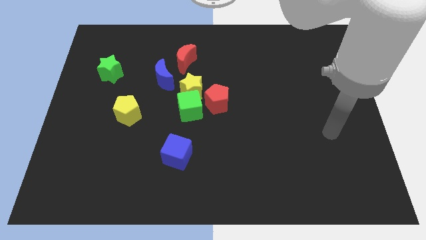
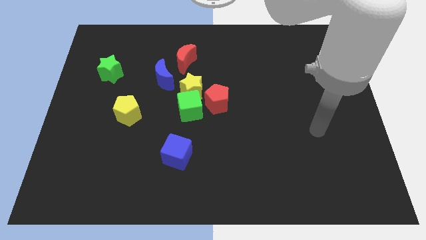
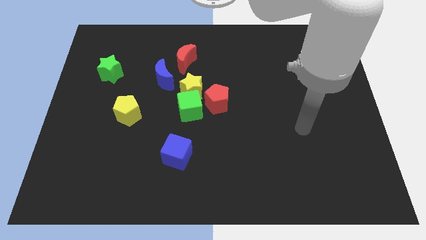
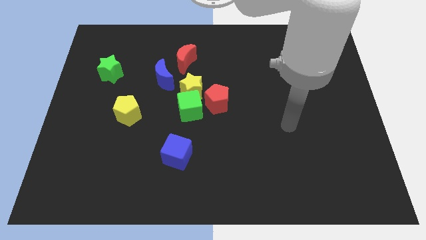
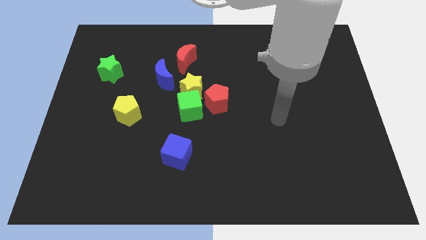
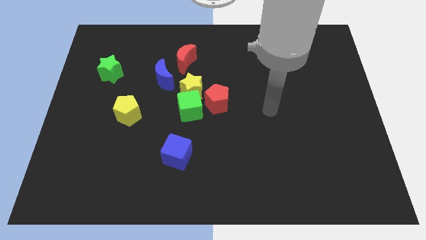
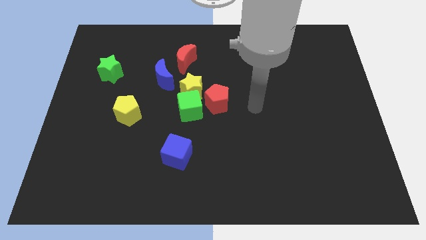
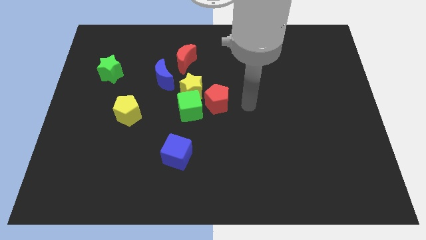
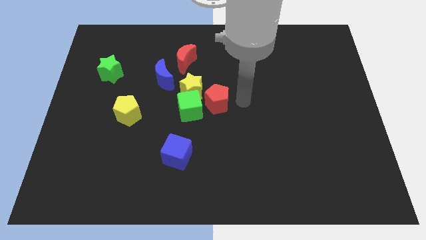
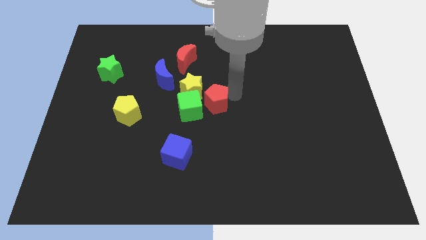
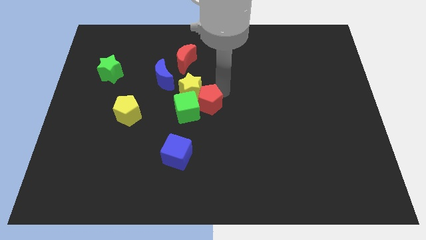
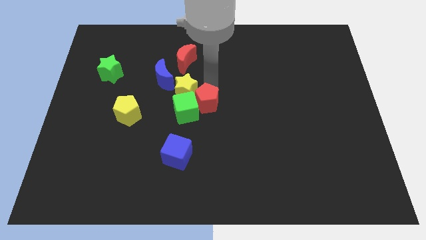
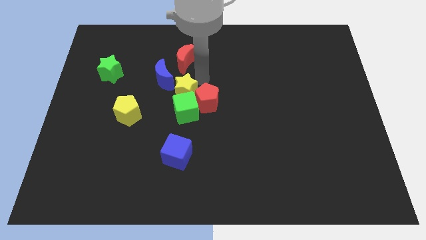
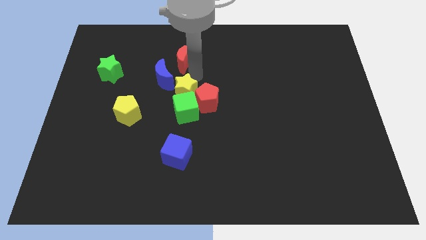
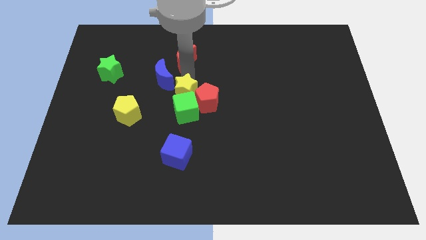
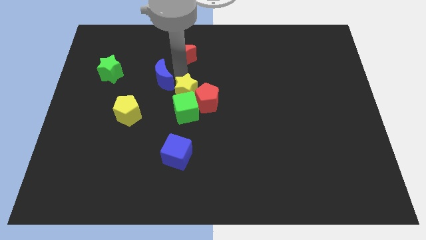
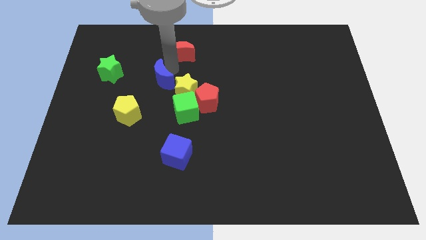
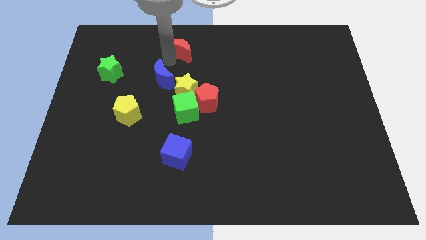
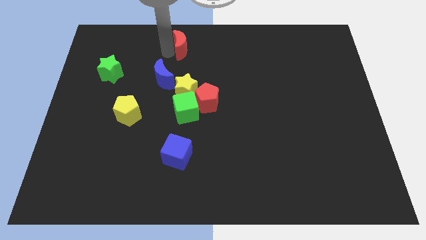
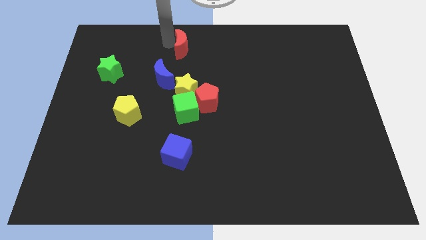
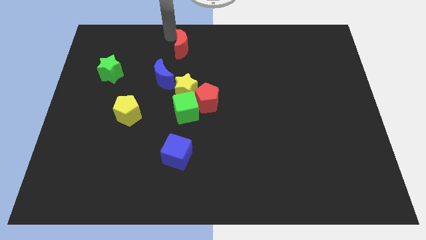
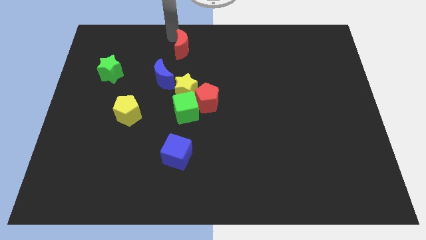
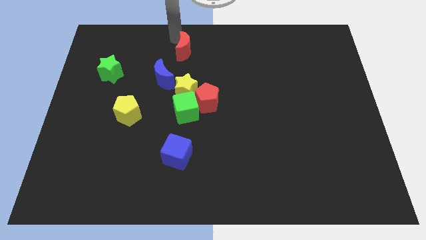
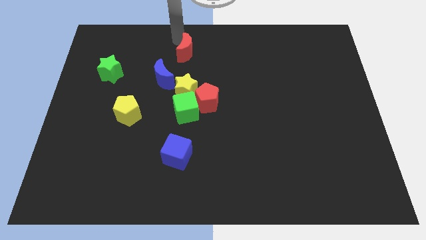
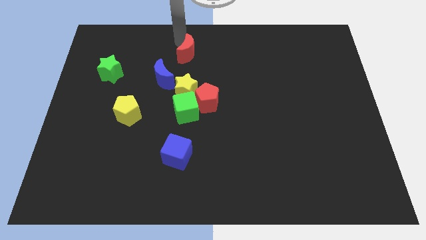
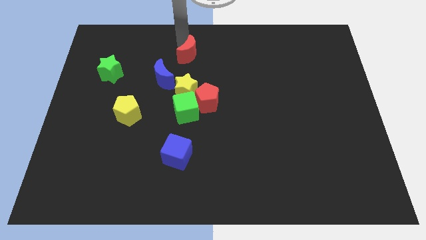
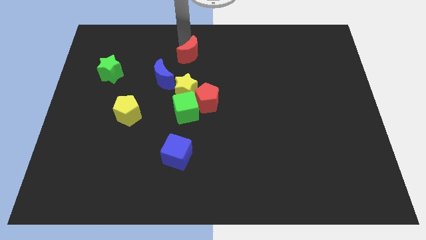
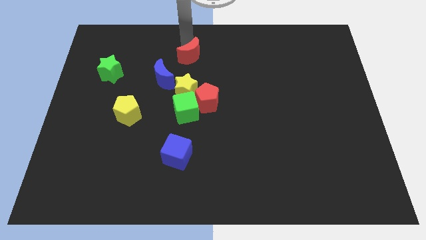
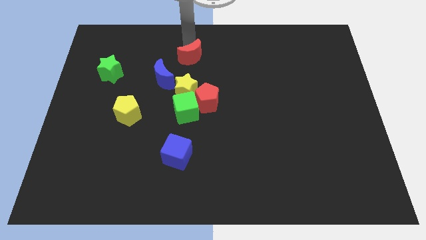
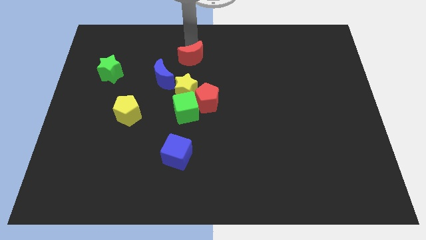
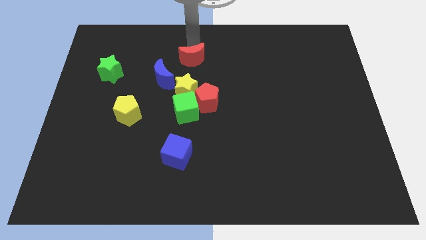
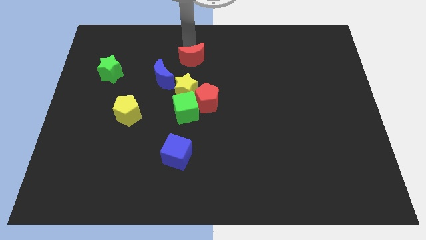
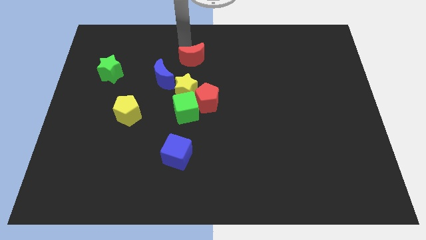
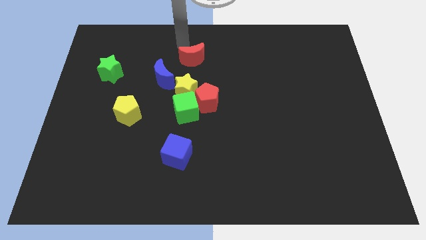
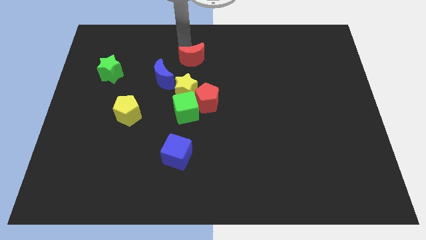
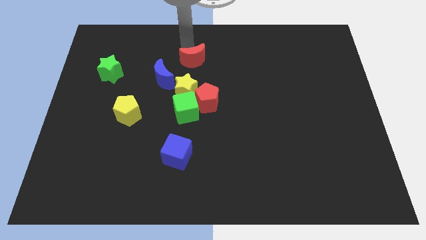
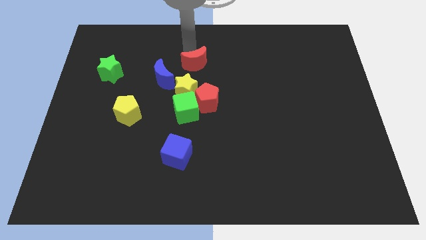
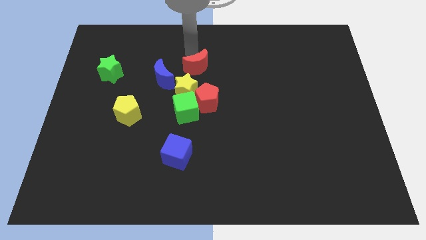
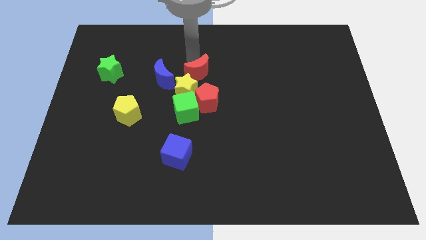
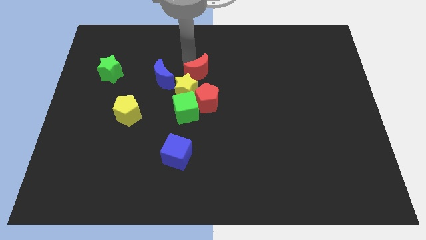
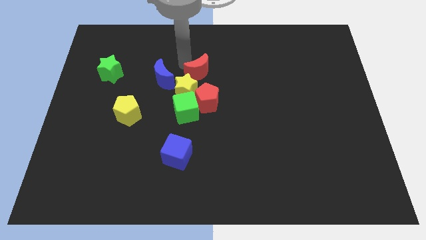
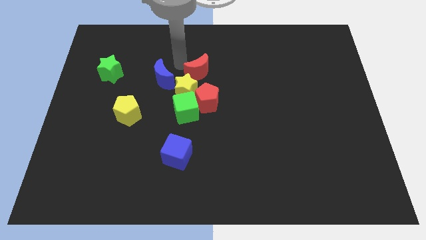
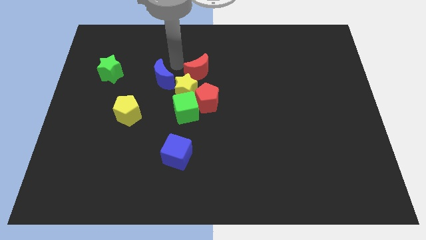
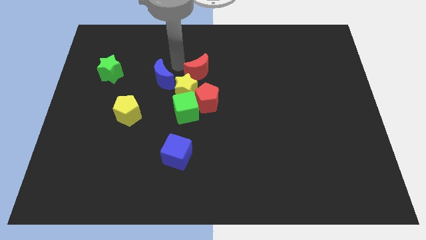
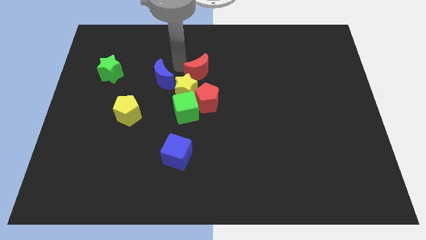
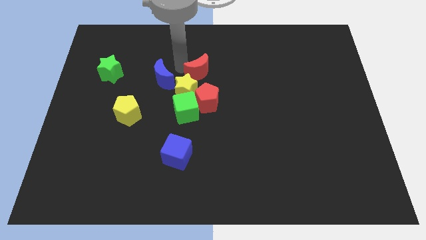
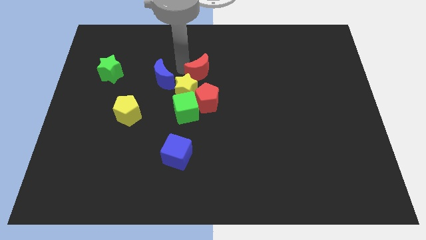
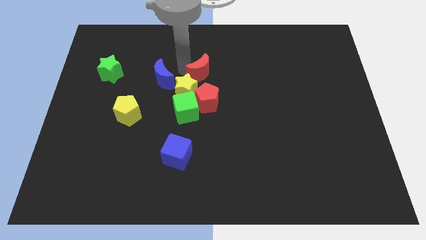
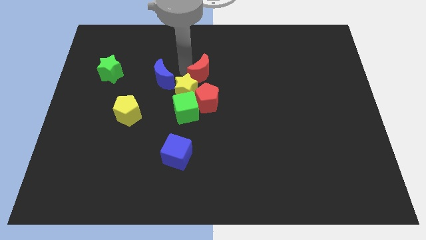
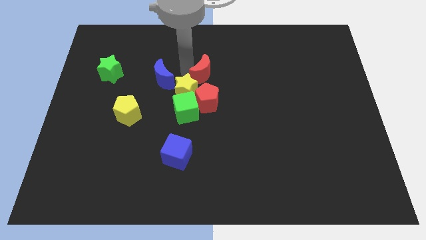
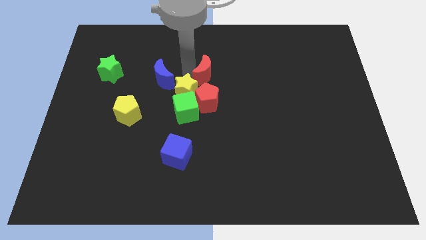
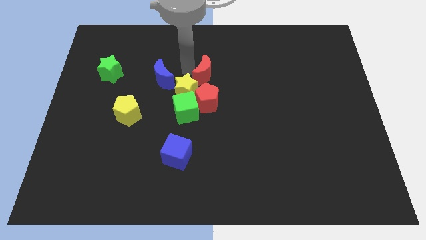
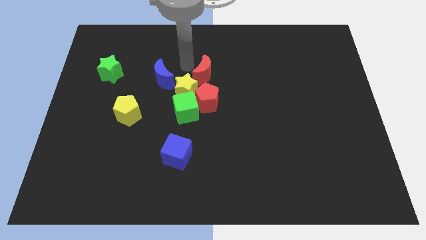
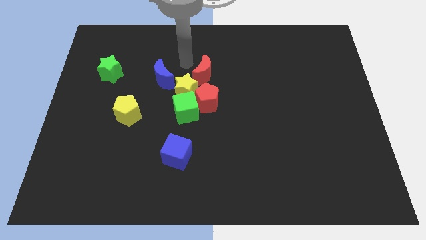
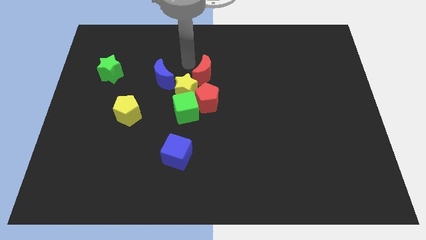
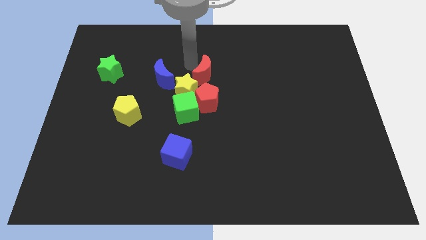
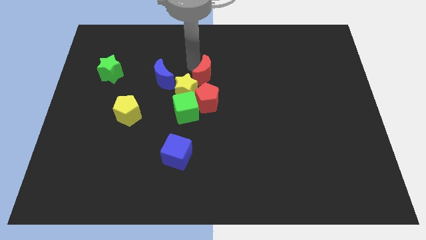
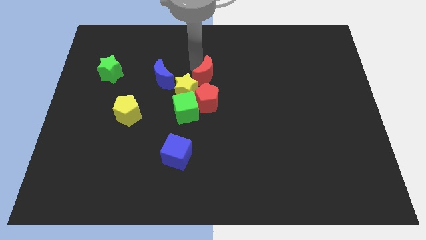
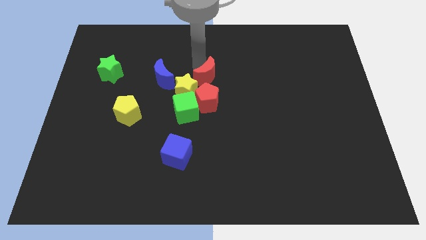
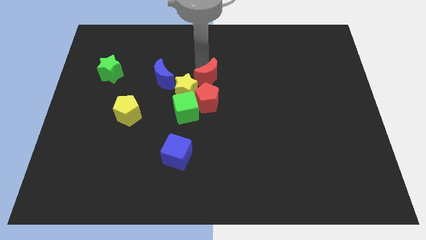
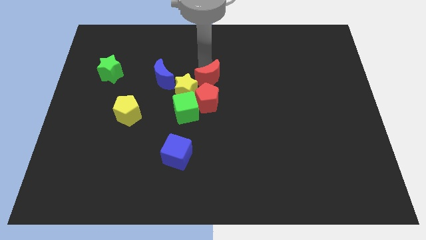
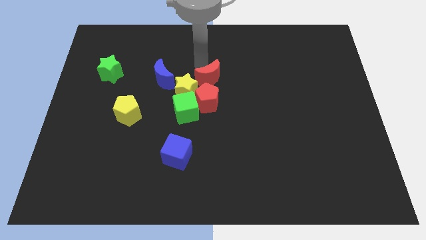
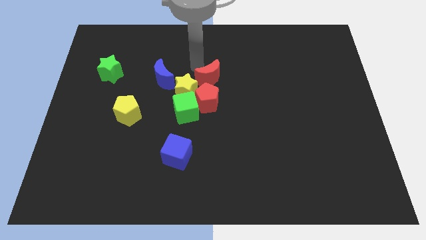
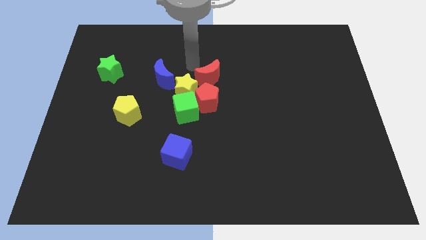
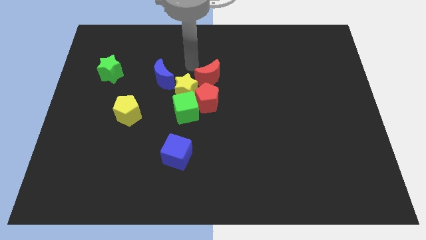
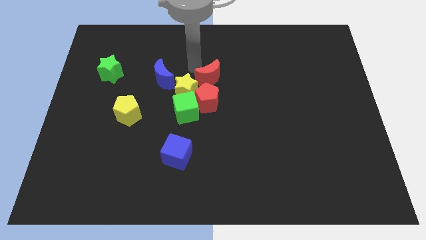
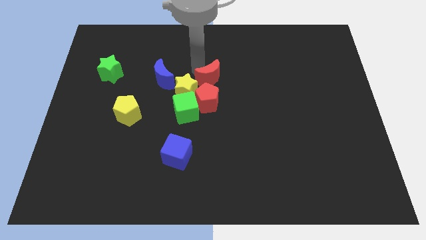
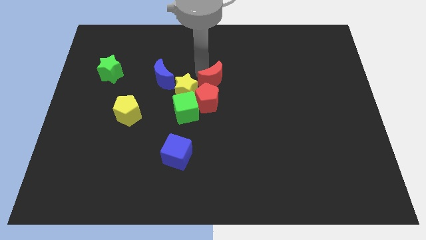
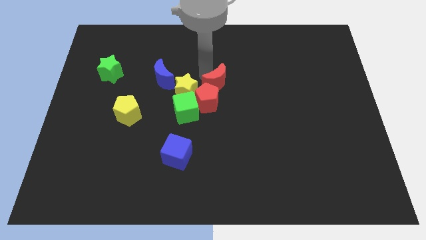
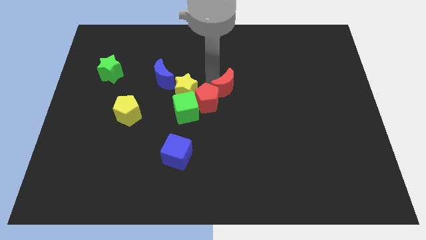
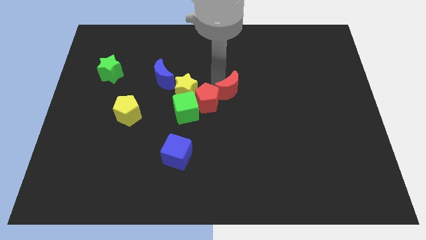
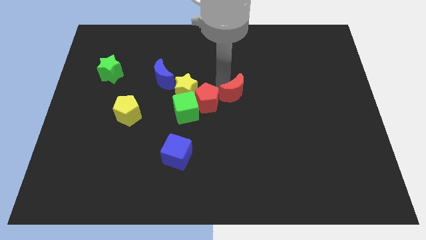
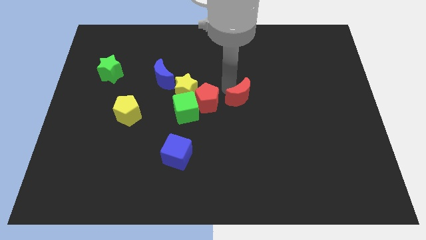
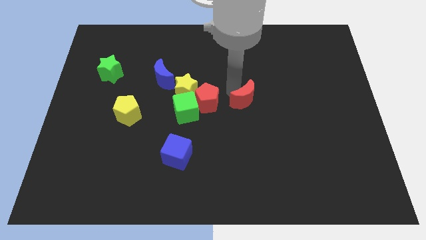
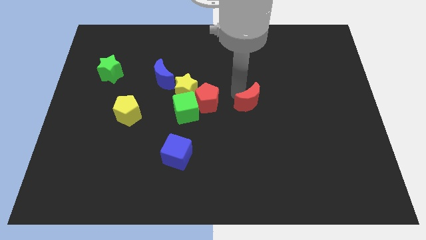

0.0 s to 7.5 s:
slide the red moon diagonally down and to the right

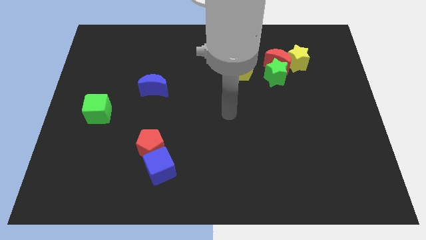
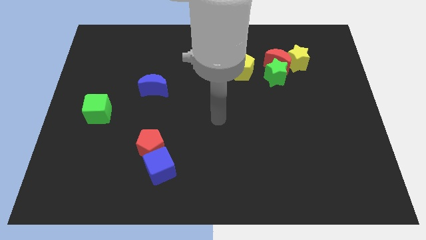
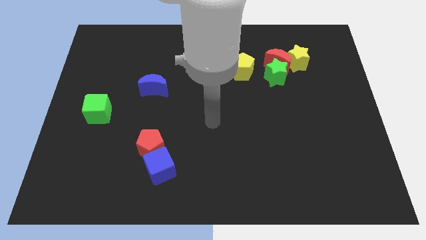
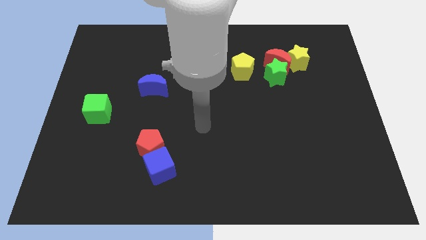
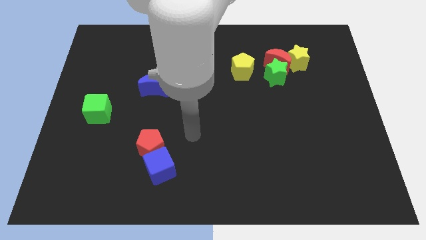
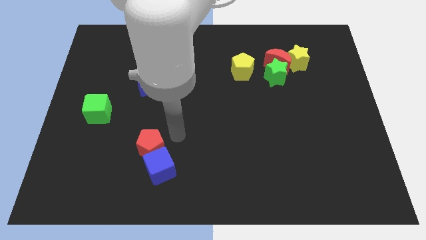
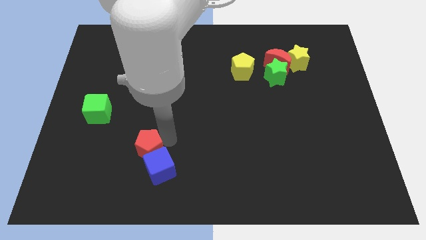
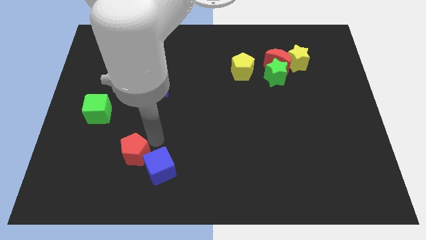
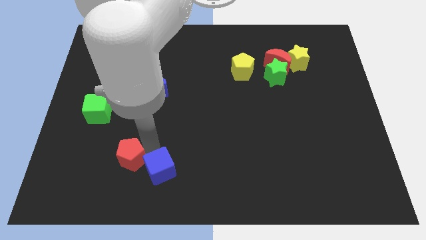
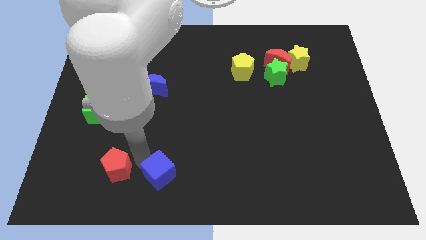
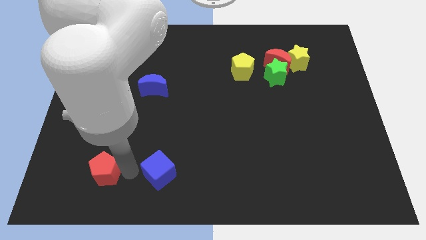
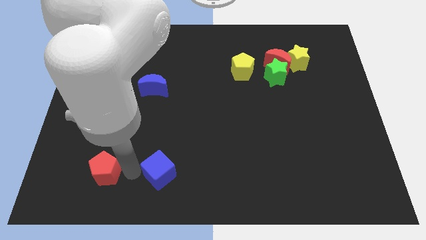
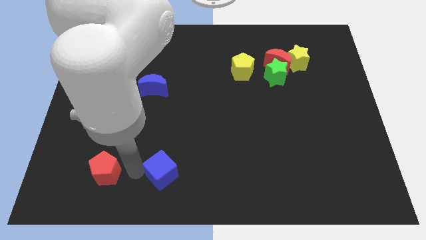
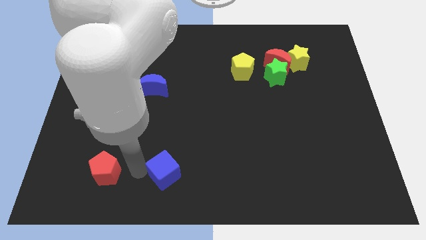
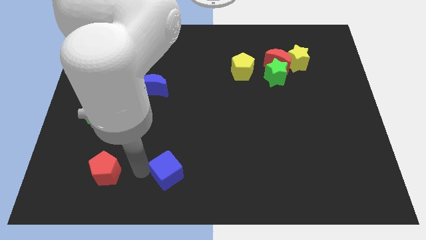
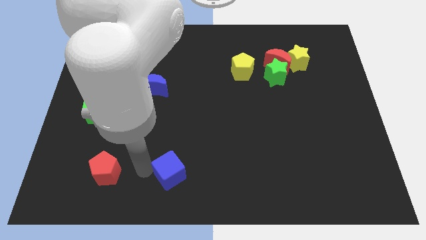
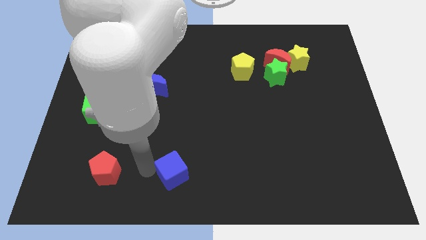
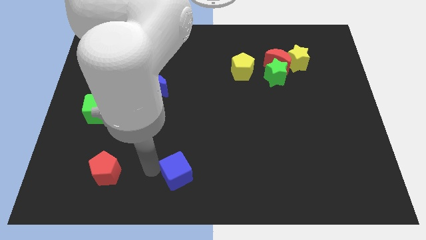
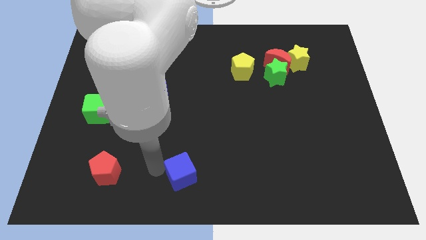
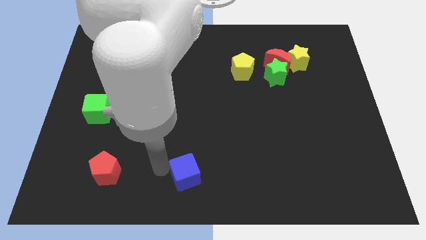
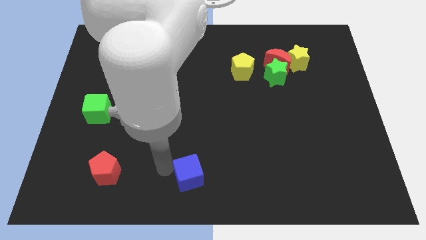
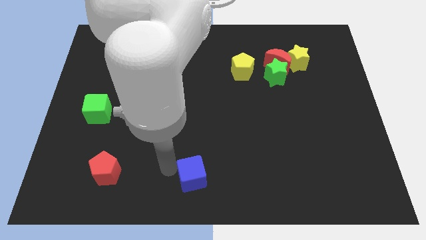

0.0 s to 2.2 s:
move the blue cube to the right a little bit
